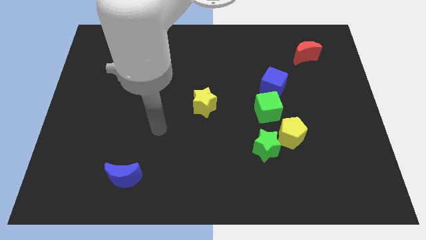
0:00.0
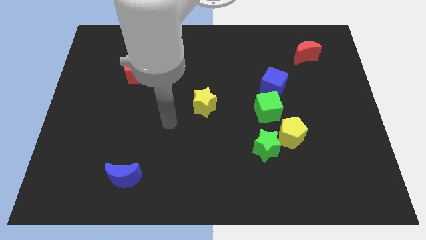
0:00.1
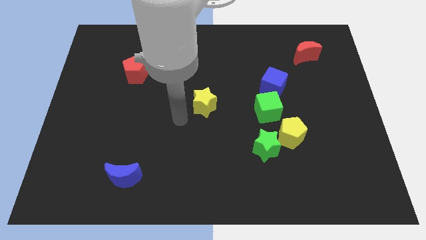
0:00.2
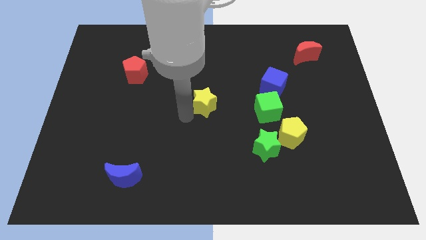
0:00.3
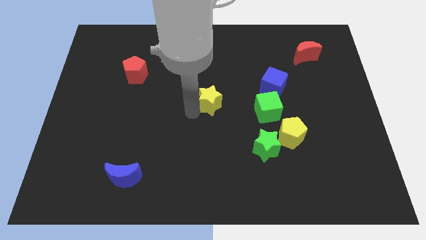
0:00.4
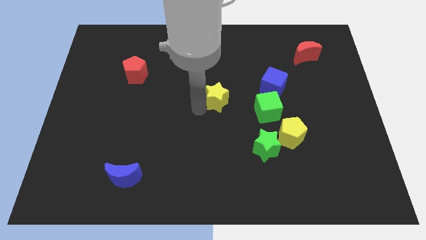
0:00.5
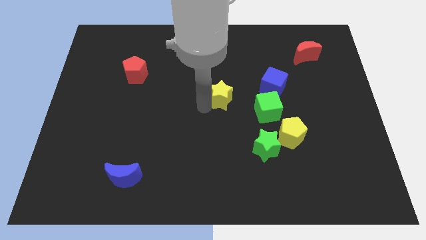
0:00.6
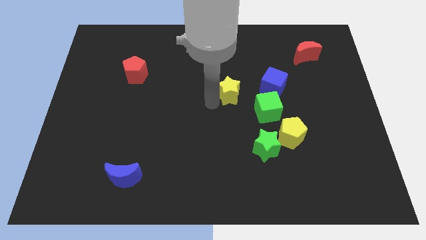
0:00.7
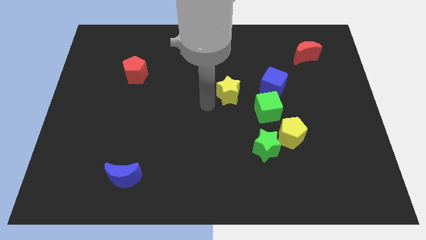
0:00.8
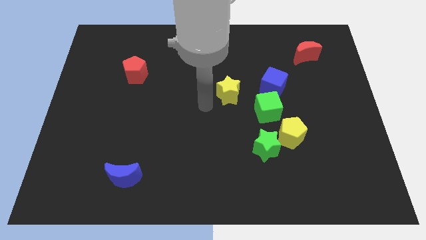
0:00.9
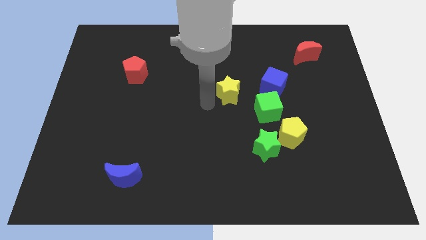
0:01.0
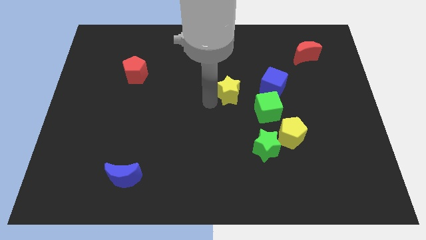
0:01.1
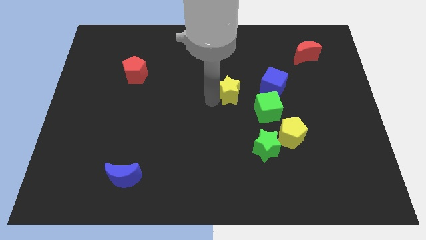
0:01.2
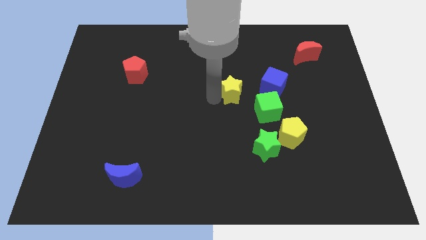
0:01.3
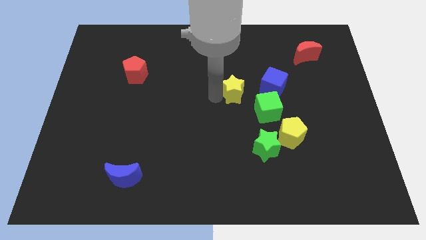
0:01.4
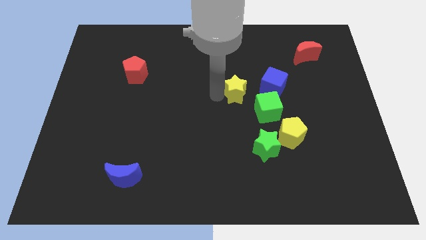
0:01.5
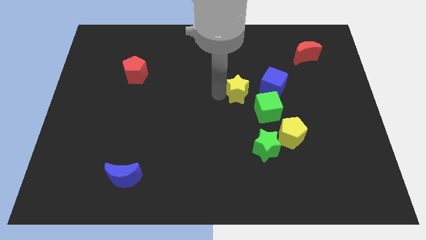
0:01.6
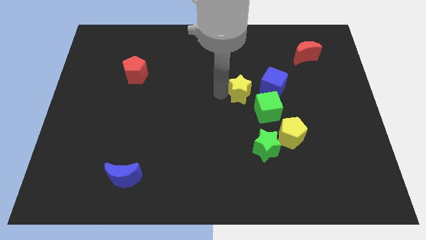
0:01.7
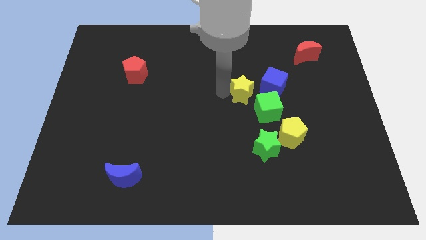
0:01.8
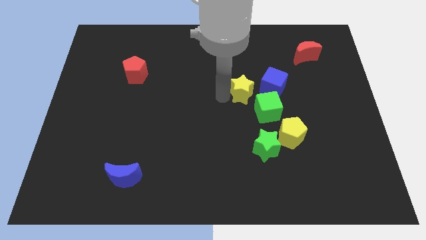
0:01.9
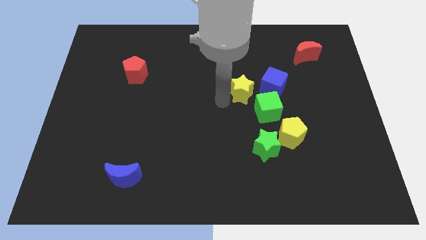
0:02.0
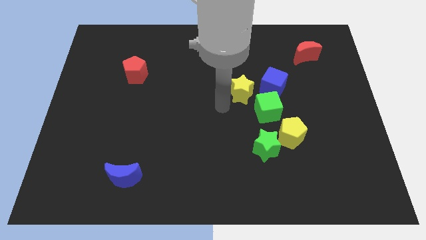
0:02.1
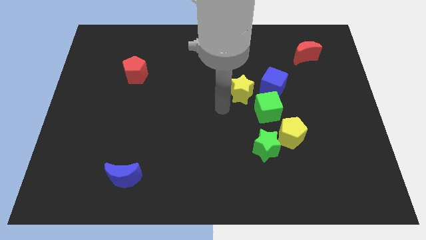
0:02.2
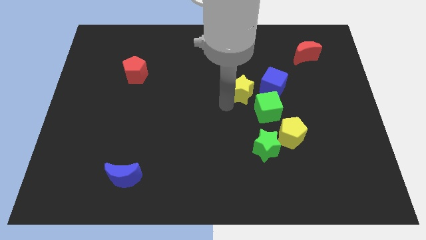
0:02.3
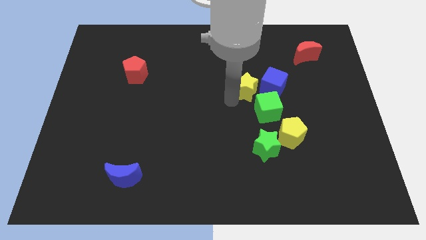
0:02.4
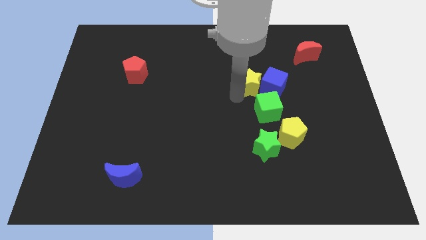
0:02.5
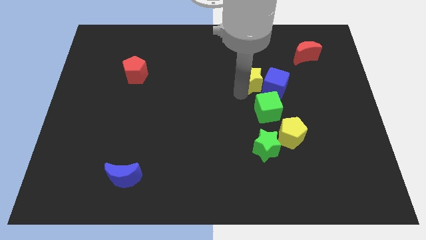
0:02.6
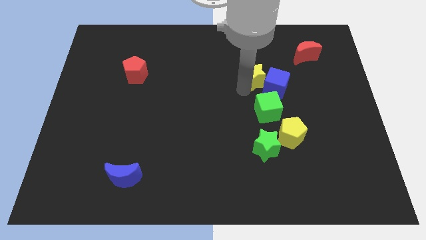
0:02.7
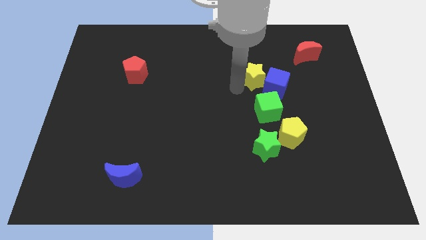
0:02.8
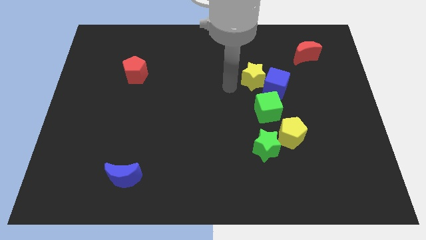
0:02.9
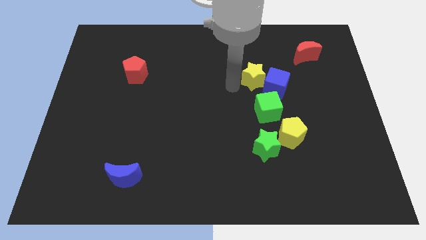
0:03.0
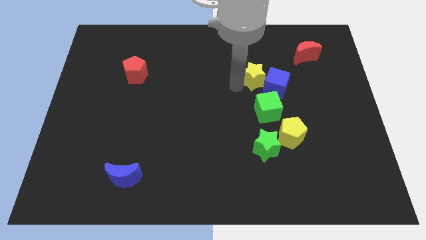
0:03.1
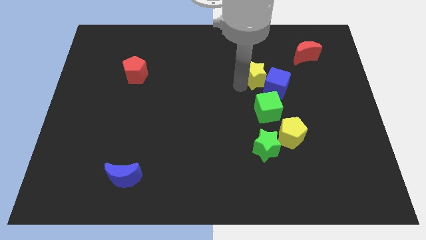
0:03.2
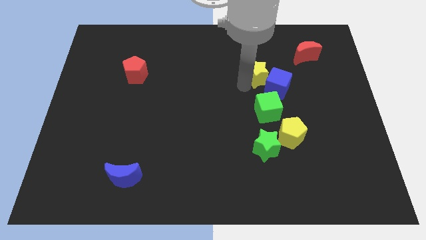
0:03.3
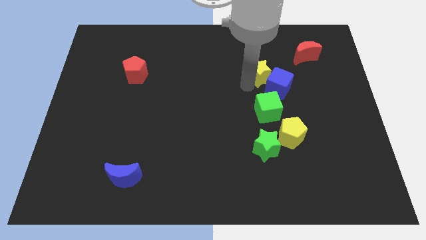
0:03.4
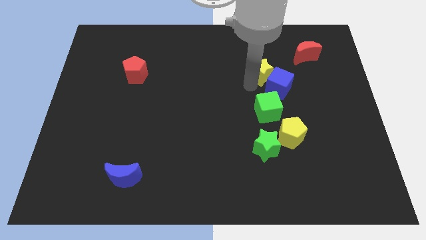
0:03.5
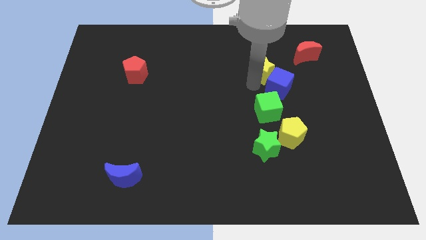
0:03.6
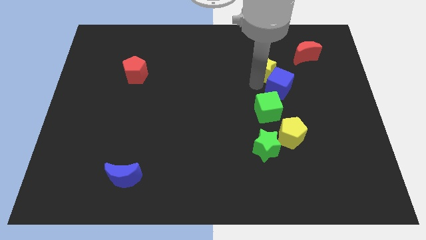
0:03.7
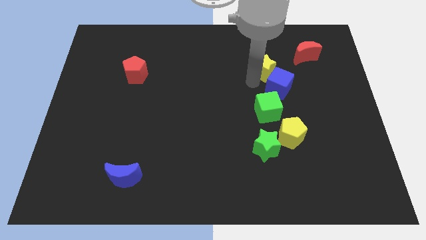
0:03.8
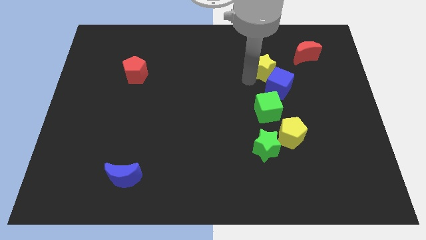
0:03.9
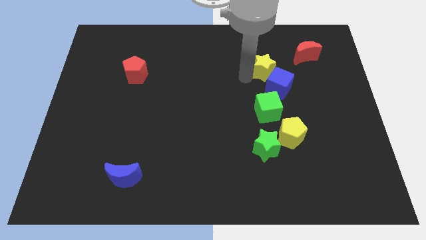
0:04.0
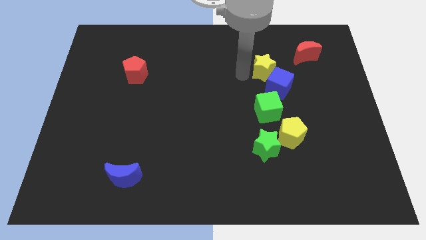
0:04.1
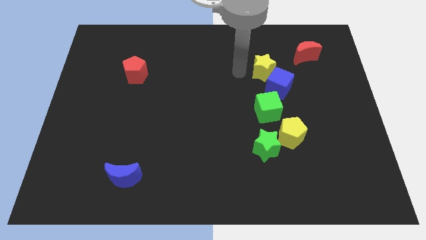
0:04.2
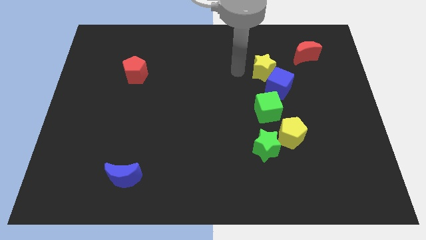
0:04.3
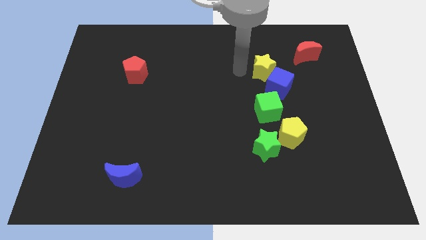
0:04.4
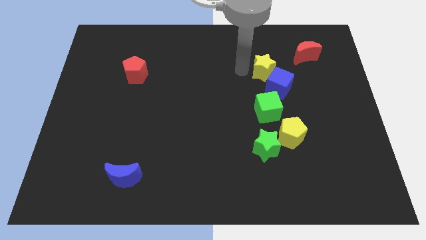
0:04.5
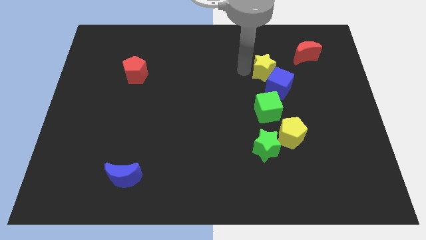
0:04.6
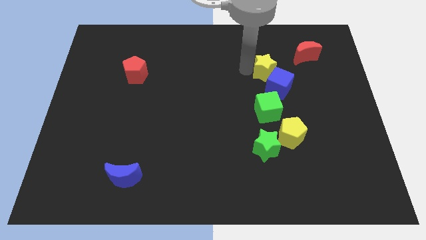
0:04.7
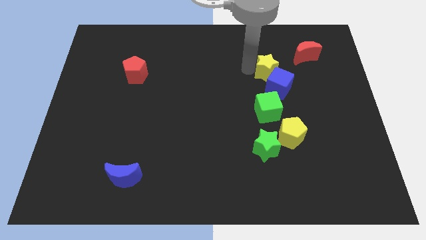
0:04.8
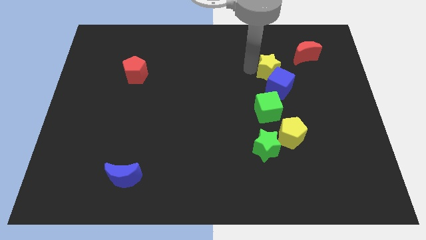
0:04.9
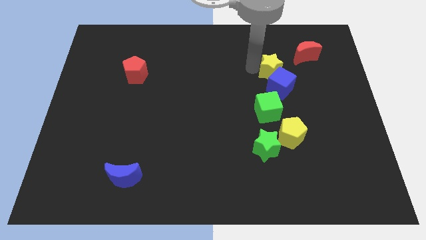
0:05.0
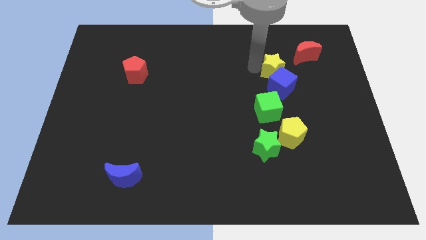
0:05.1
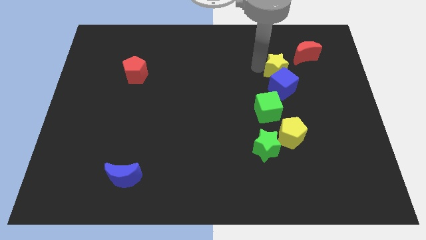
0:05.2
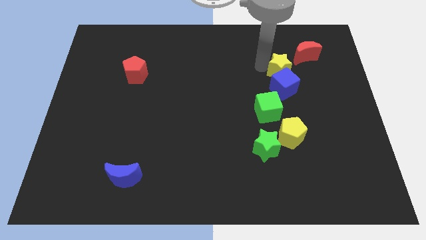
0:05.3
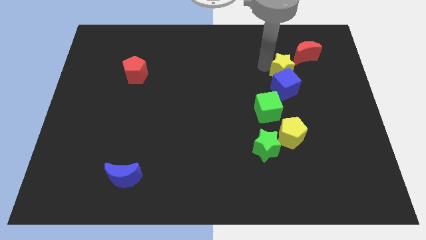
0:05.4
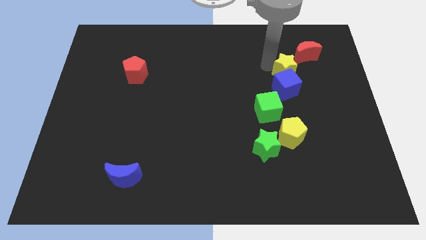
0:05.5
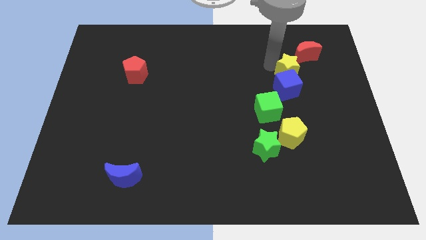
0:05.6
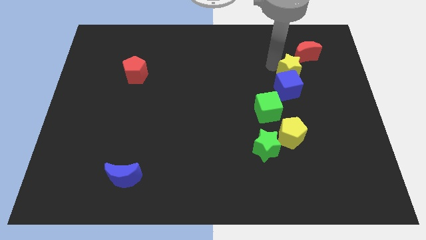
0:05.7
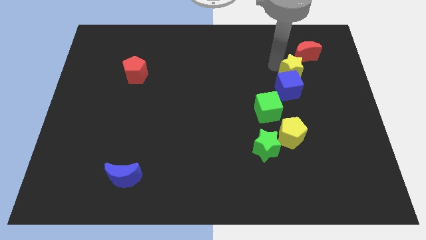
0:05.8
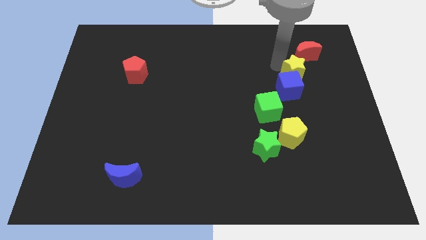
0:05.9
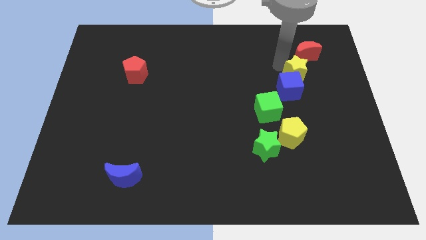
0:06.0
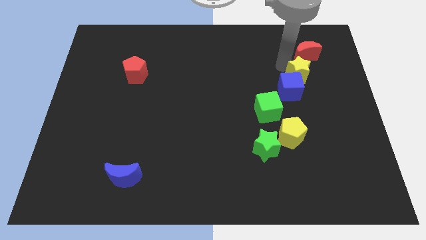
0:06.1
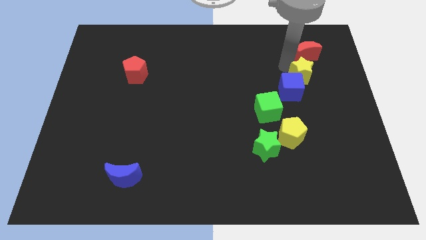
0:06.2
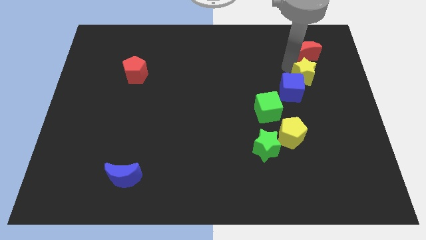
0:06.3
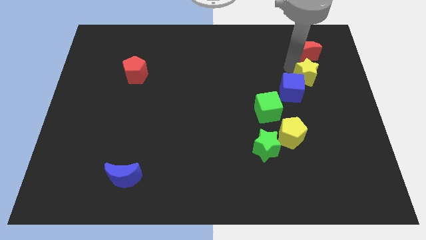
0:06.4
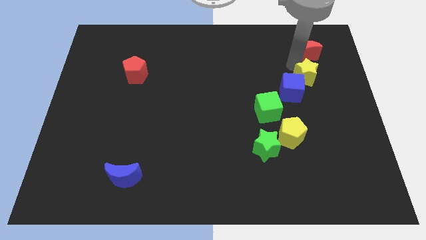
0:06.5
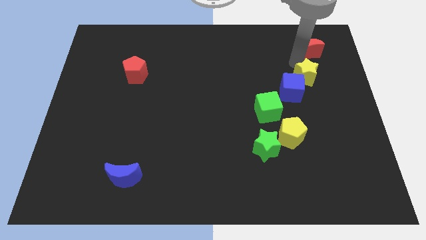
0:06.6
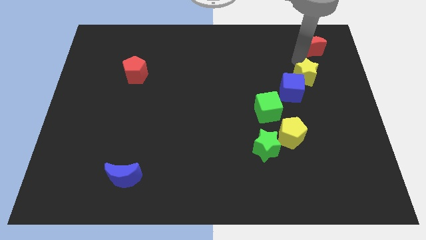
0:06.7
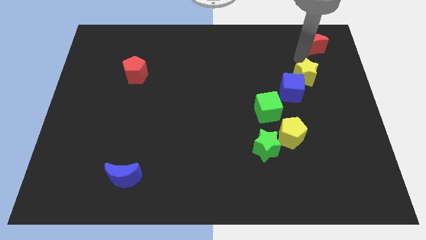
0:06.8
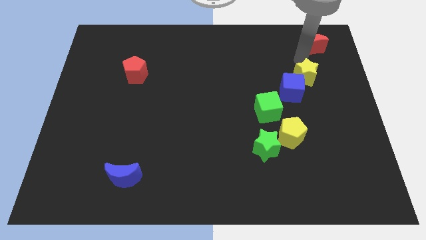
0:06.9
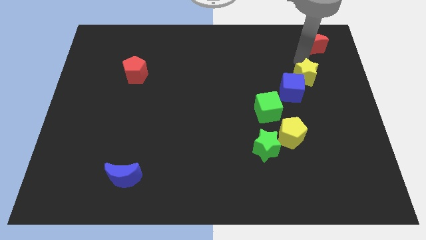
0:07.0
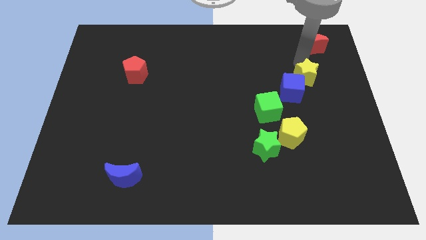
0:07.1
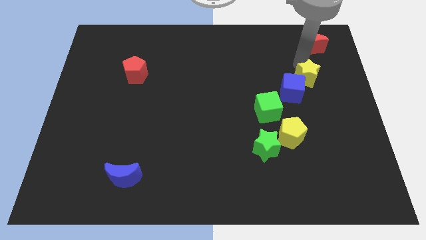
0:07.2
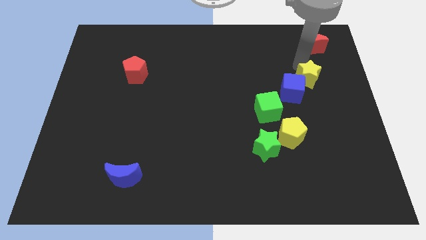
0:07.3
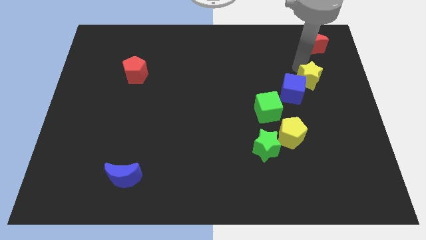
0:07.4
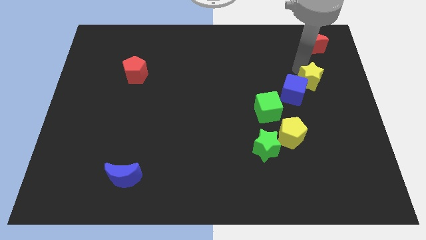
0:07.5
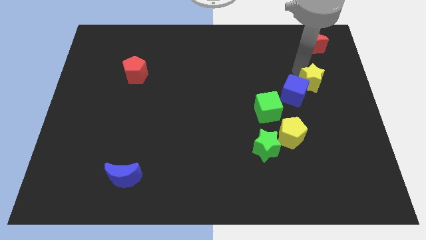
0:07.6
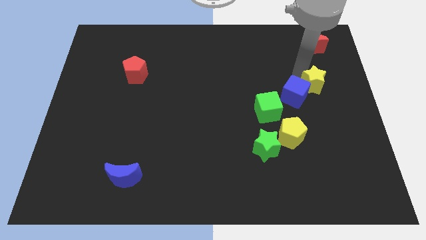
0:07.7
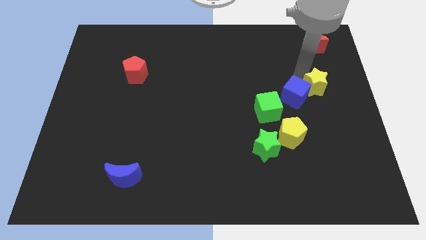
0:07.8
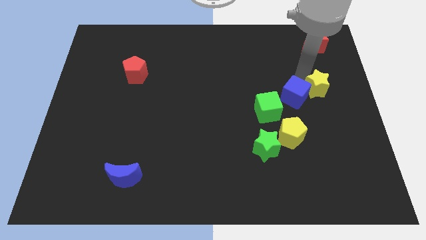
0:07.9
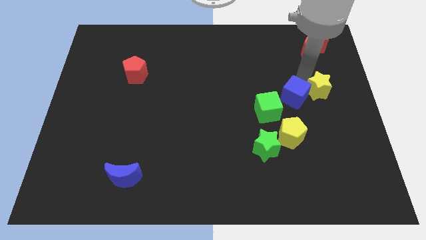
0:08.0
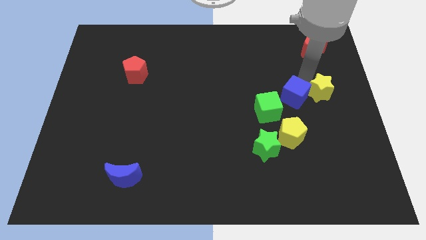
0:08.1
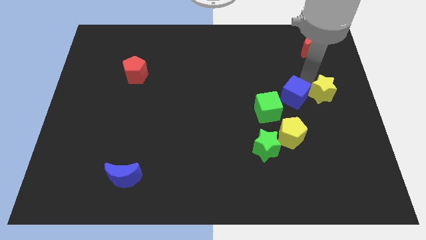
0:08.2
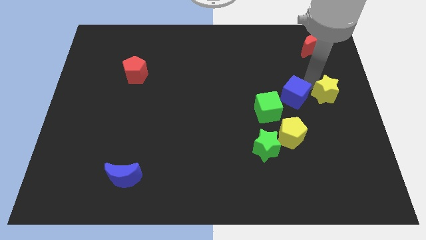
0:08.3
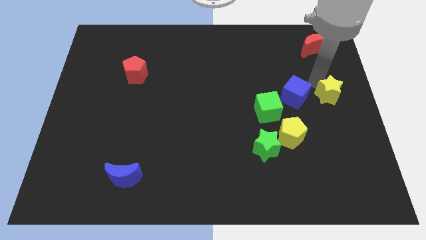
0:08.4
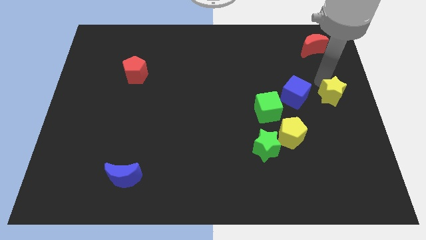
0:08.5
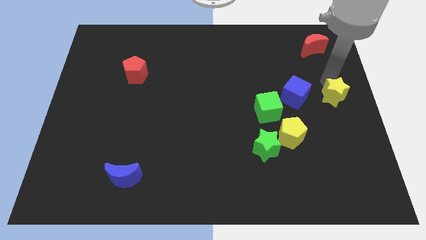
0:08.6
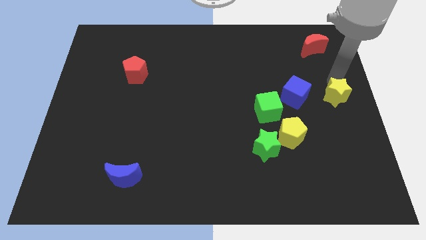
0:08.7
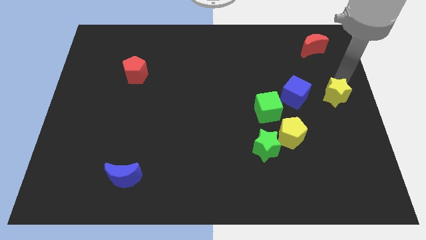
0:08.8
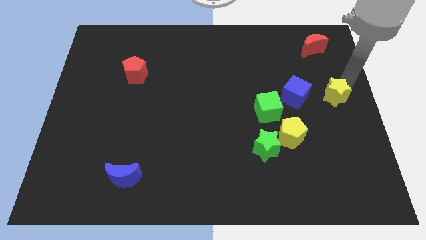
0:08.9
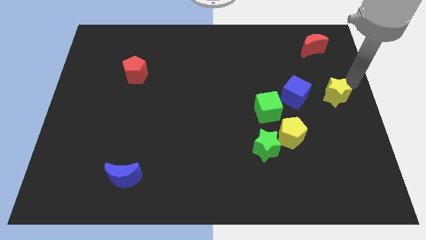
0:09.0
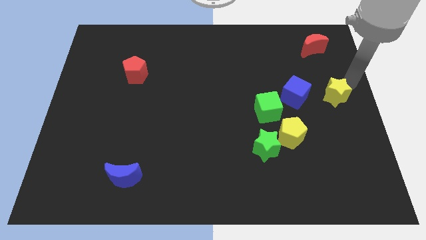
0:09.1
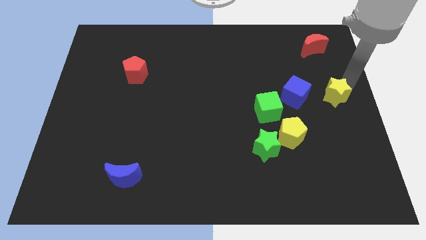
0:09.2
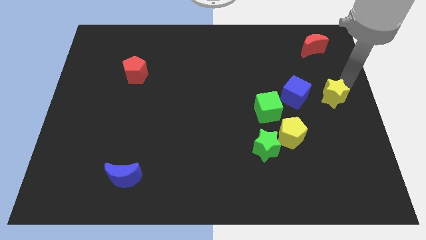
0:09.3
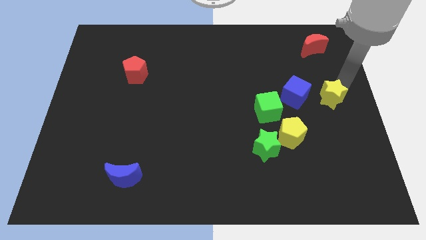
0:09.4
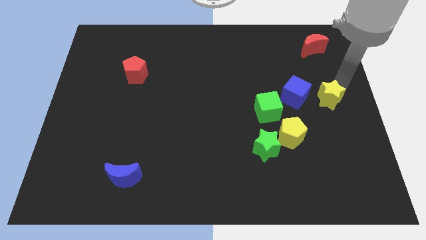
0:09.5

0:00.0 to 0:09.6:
push the yellow star to the right side of the green cube
